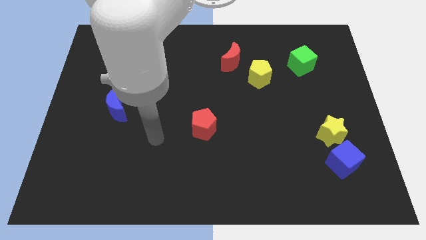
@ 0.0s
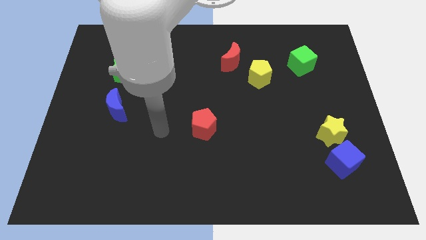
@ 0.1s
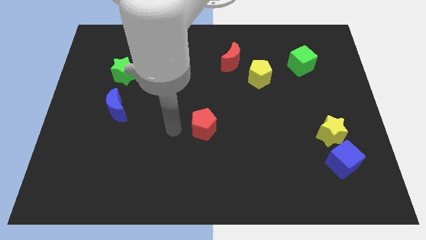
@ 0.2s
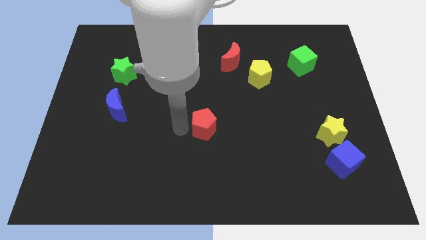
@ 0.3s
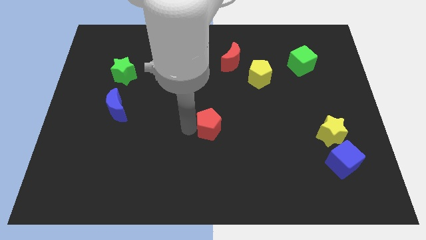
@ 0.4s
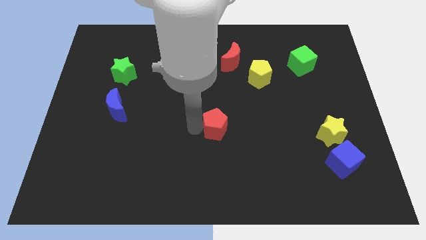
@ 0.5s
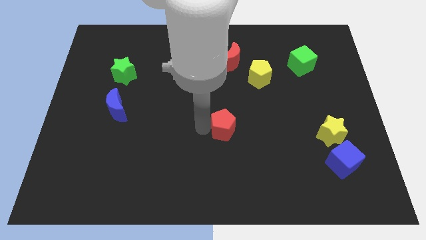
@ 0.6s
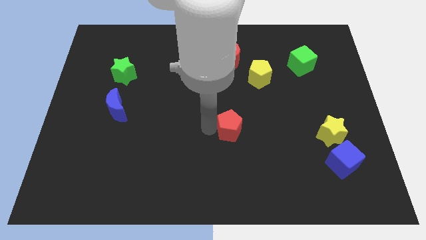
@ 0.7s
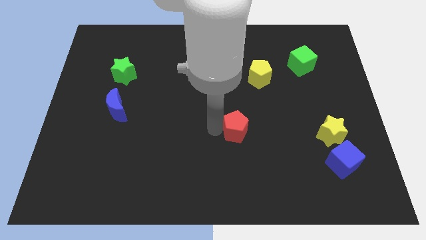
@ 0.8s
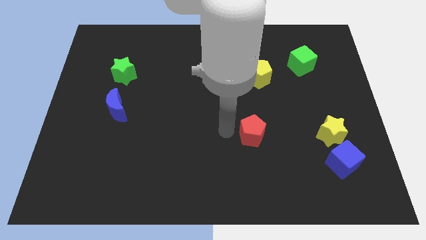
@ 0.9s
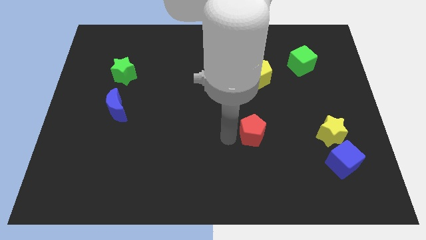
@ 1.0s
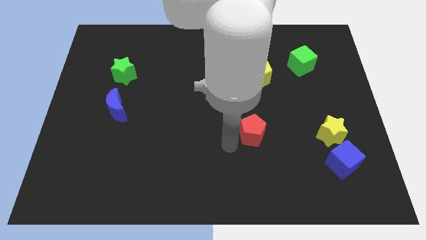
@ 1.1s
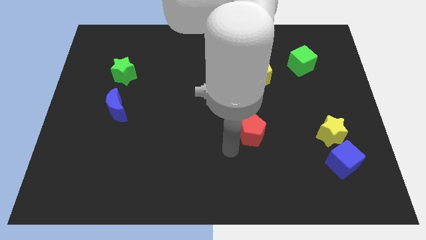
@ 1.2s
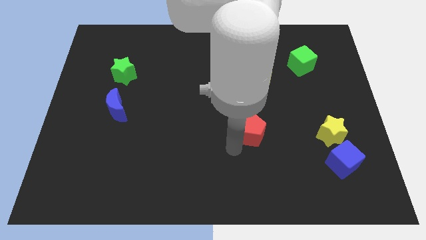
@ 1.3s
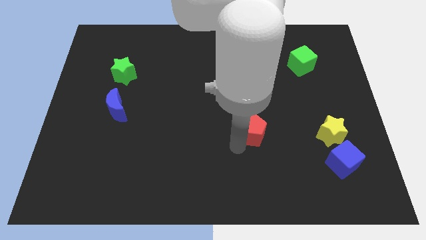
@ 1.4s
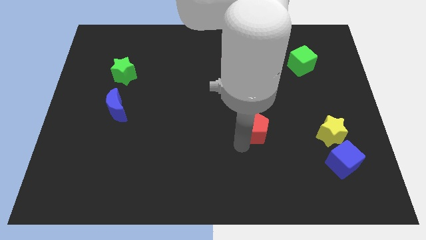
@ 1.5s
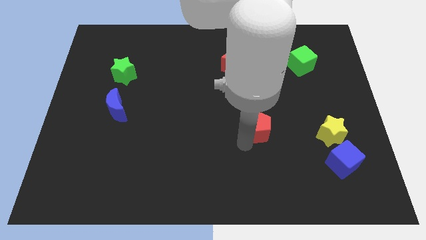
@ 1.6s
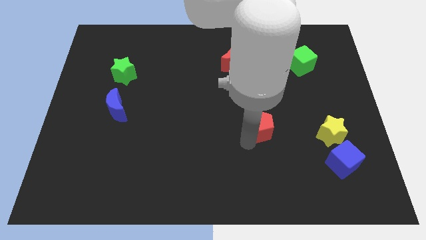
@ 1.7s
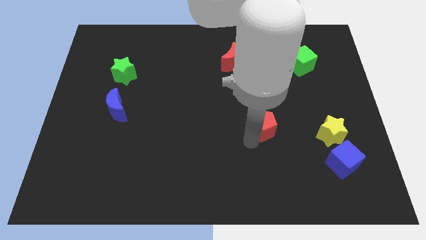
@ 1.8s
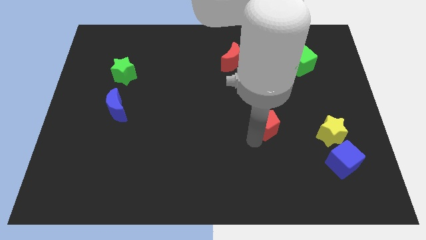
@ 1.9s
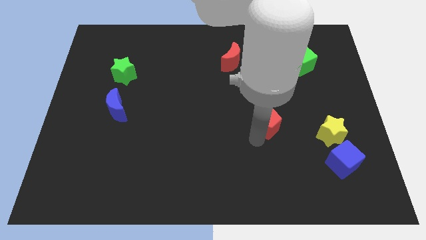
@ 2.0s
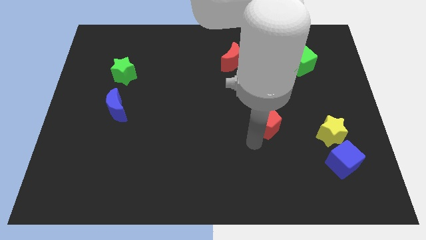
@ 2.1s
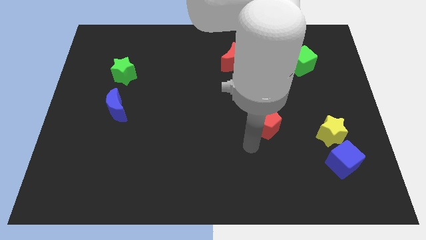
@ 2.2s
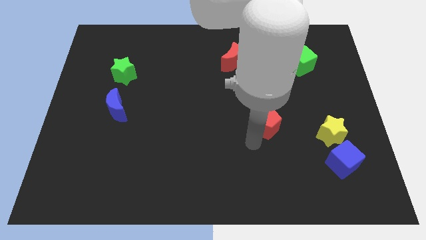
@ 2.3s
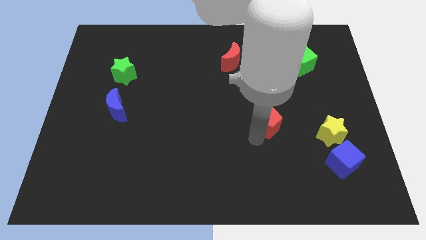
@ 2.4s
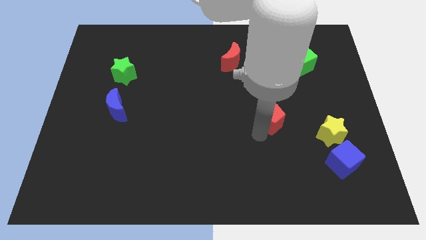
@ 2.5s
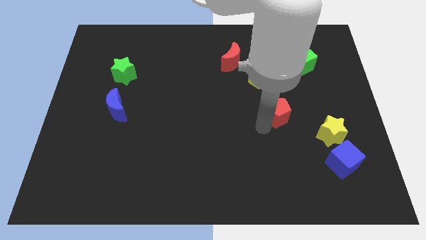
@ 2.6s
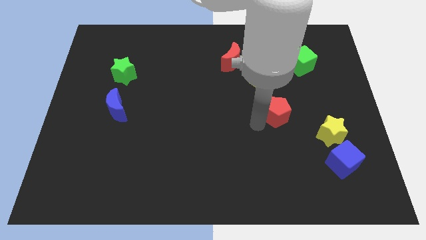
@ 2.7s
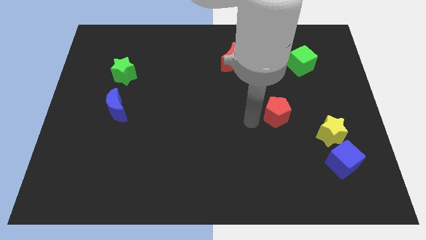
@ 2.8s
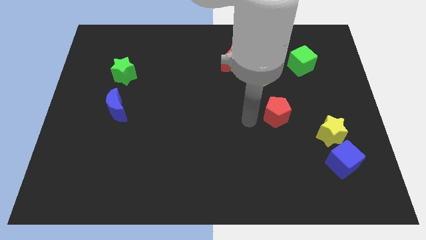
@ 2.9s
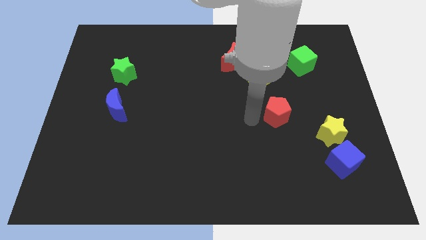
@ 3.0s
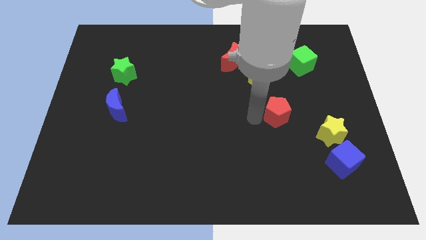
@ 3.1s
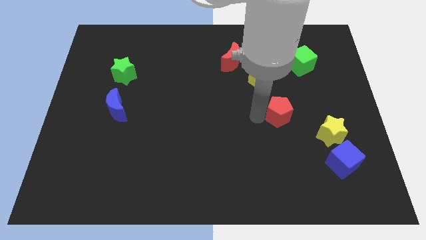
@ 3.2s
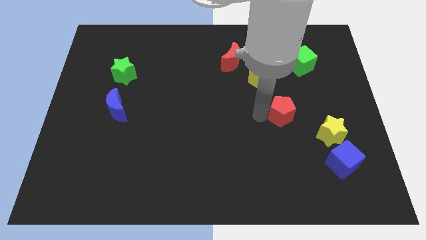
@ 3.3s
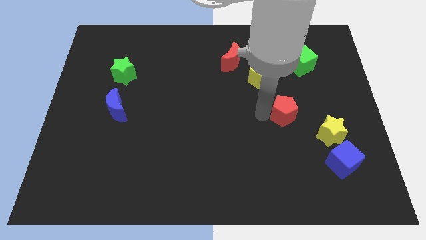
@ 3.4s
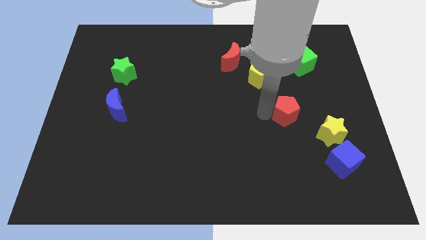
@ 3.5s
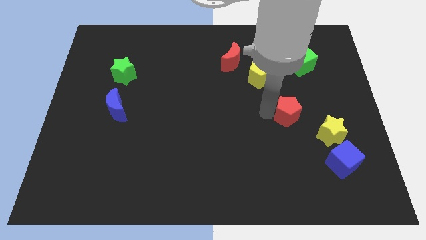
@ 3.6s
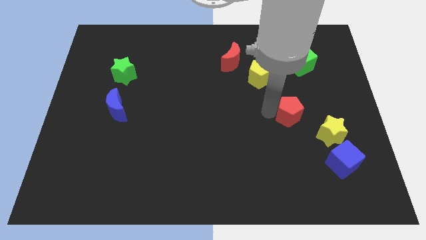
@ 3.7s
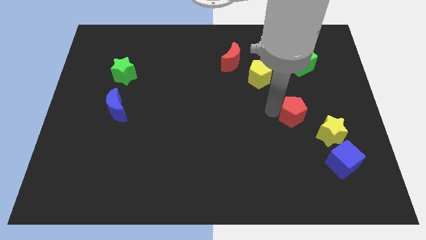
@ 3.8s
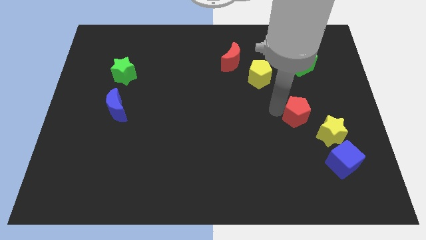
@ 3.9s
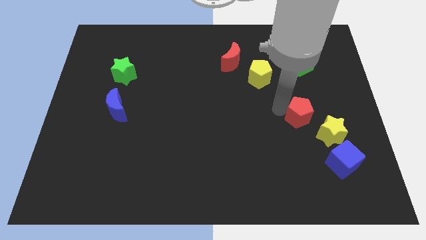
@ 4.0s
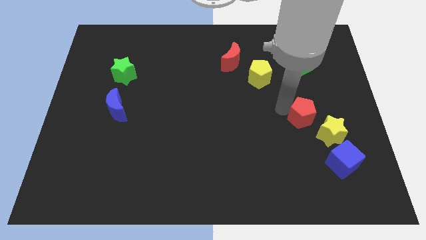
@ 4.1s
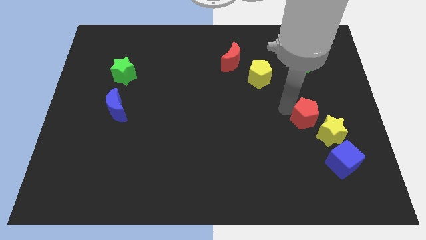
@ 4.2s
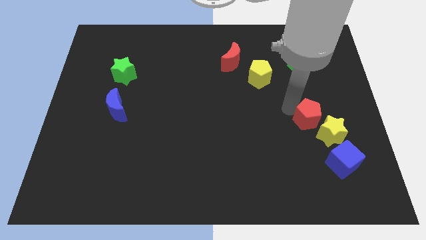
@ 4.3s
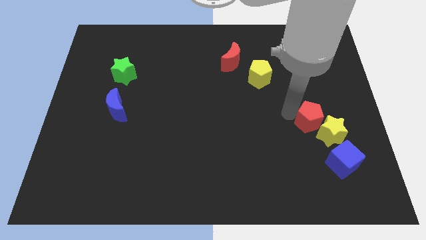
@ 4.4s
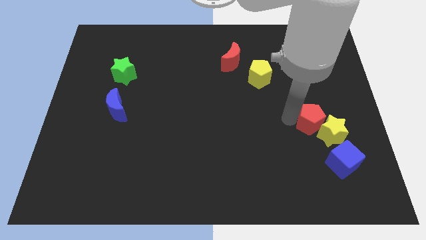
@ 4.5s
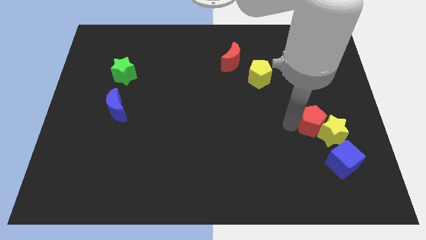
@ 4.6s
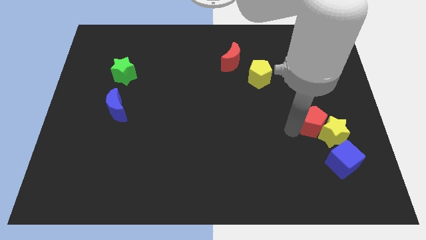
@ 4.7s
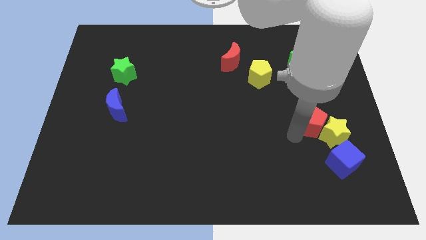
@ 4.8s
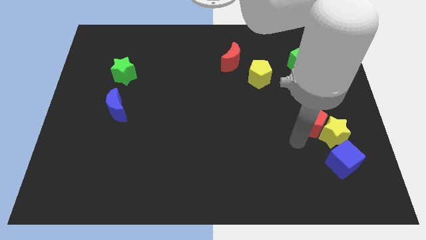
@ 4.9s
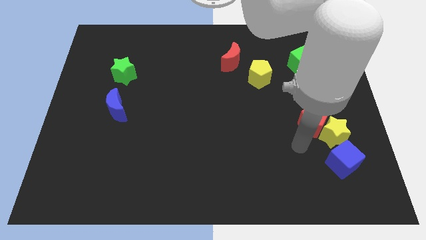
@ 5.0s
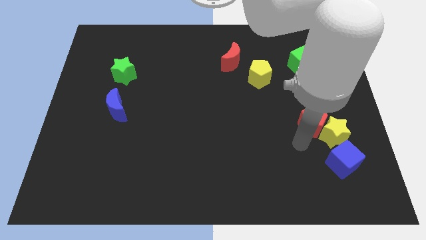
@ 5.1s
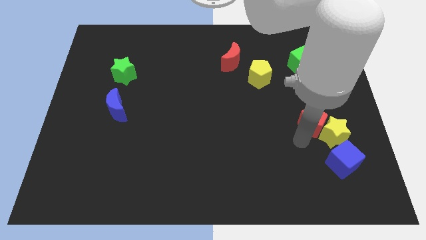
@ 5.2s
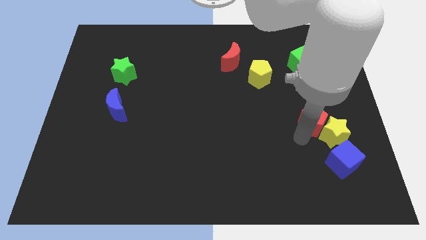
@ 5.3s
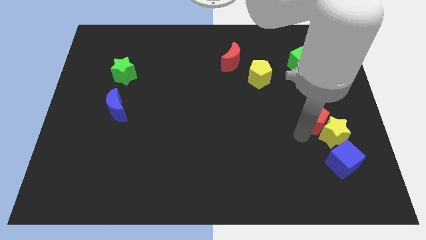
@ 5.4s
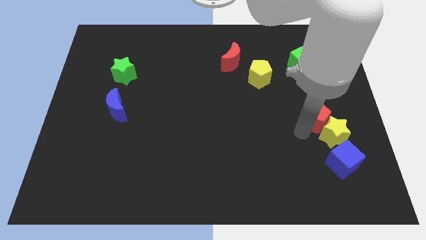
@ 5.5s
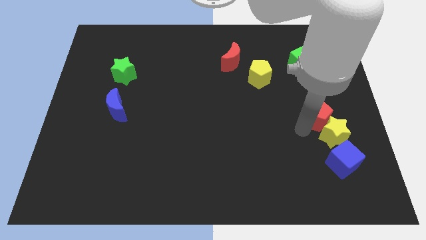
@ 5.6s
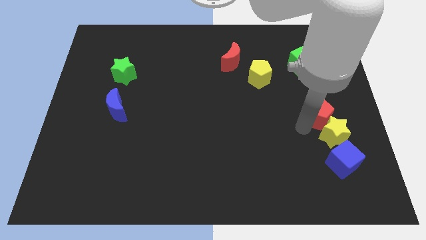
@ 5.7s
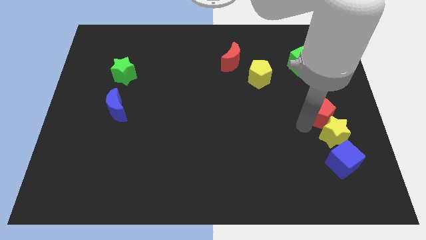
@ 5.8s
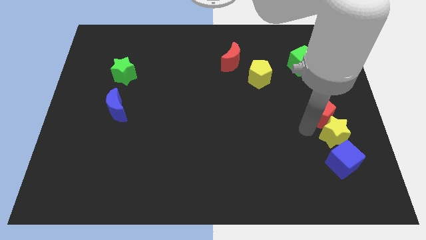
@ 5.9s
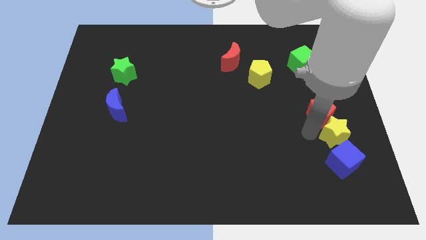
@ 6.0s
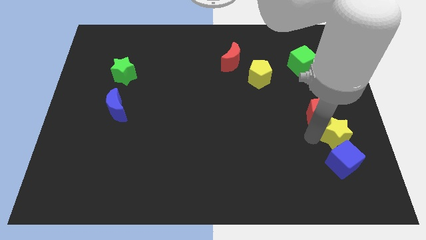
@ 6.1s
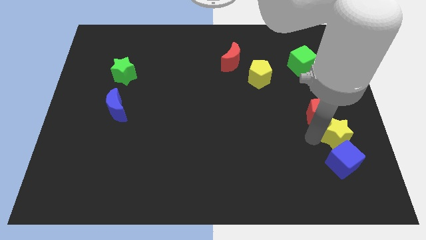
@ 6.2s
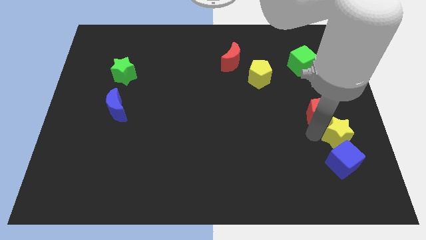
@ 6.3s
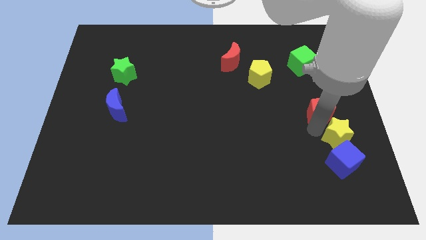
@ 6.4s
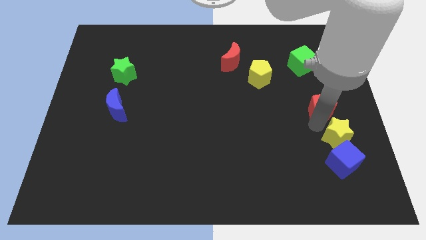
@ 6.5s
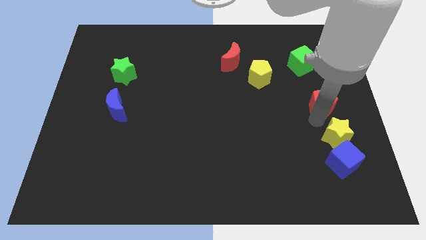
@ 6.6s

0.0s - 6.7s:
move the red pentagon to the right side of the board
